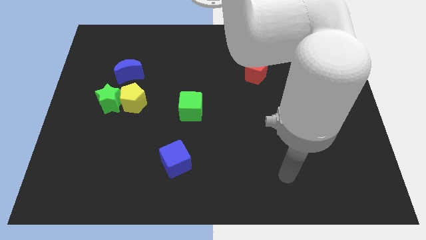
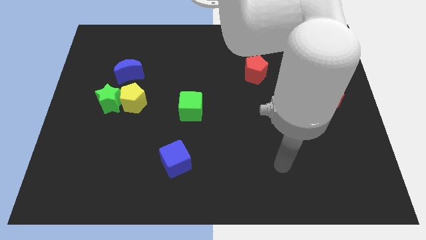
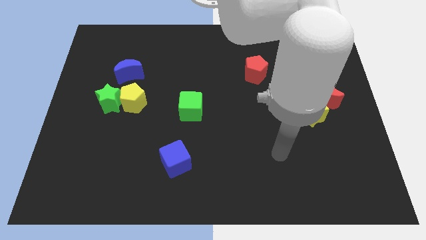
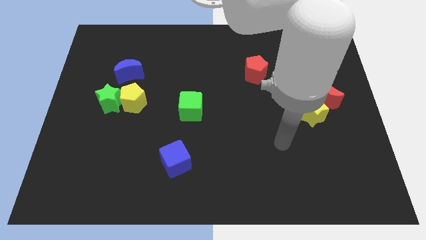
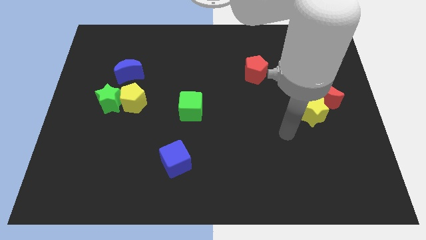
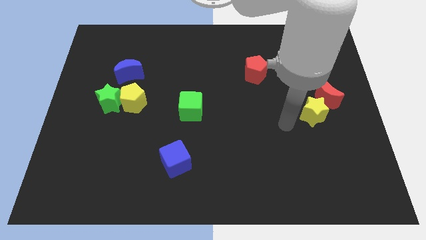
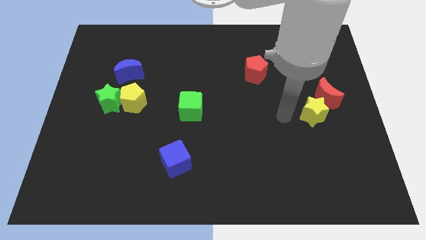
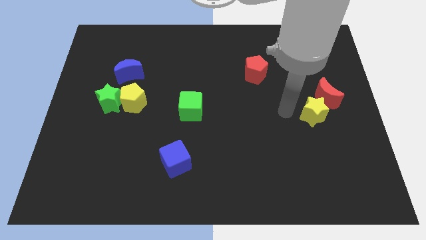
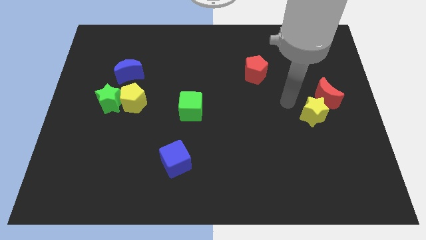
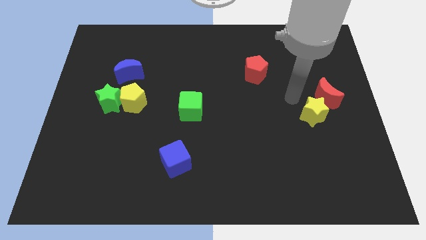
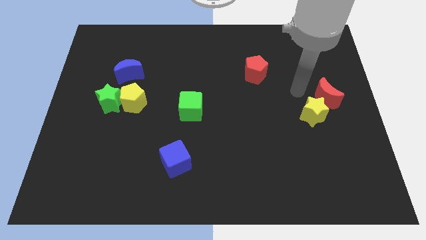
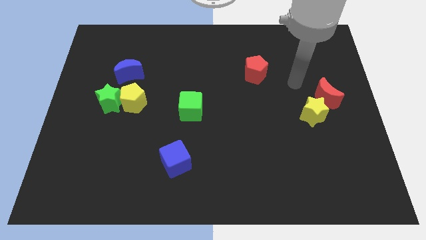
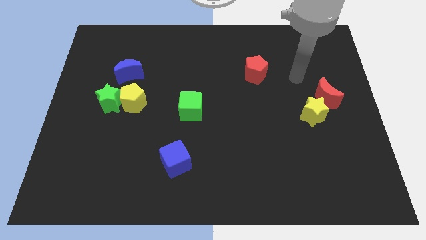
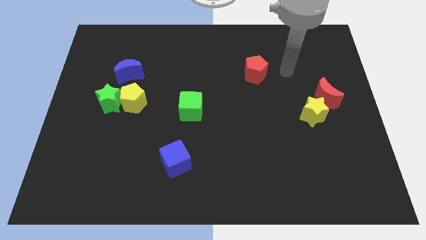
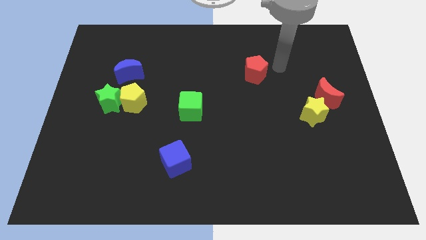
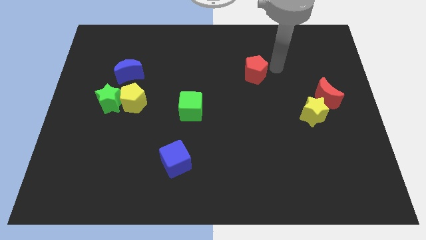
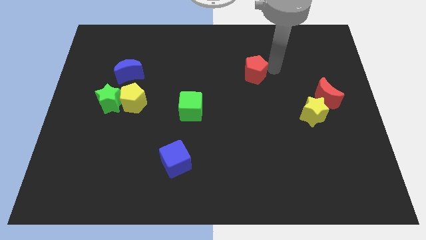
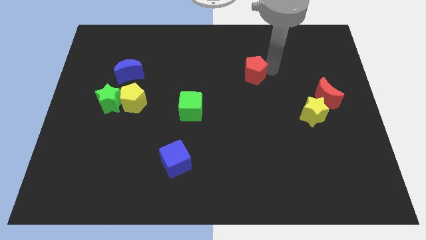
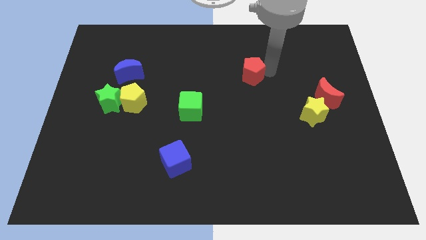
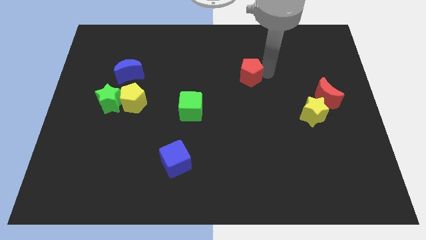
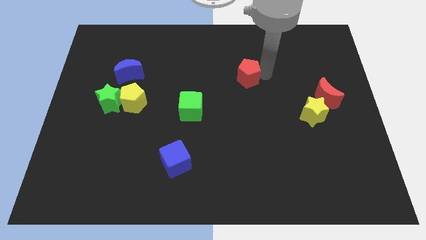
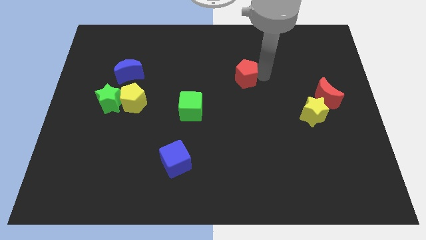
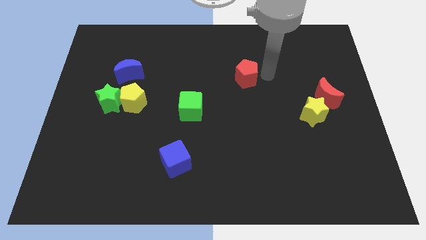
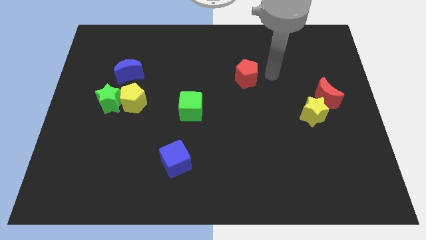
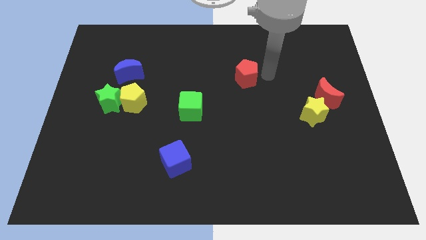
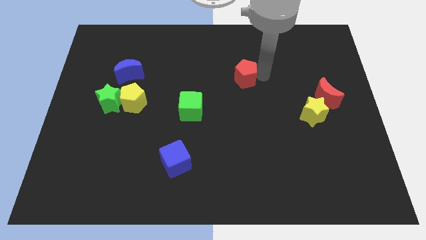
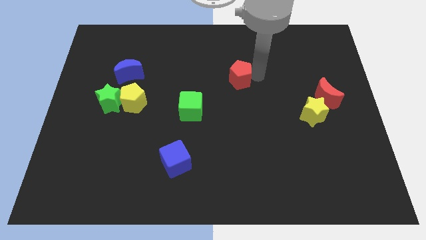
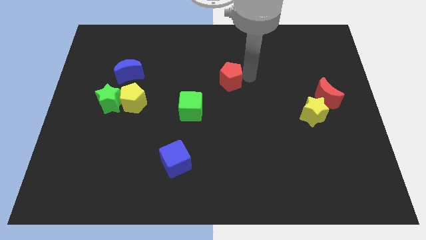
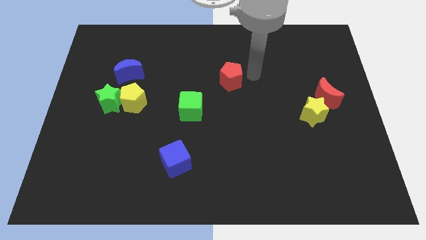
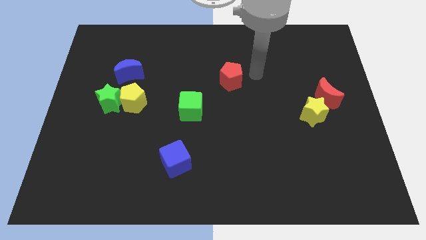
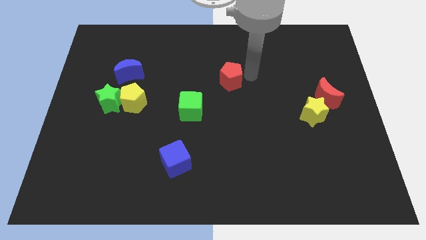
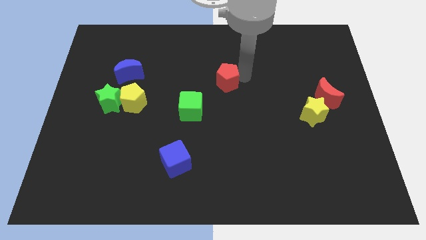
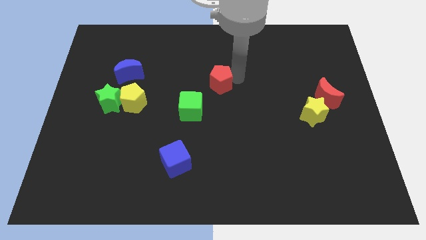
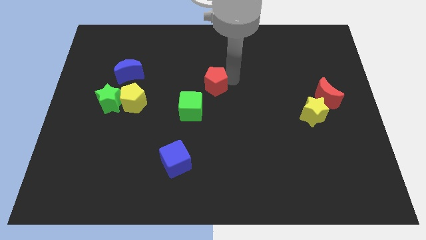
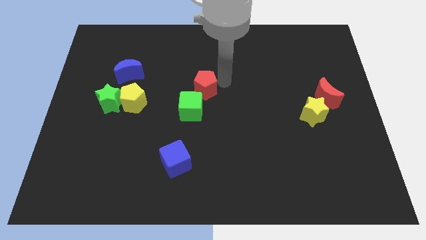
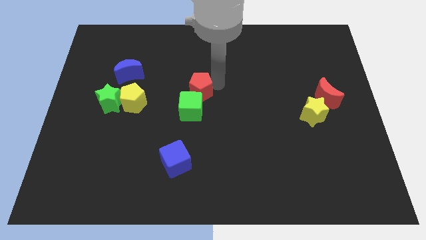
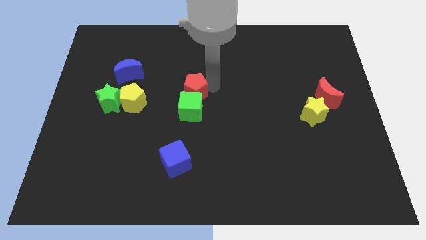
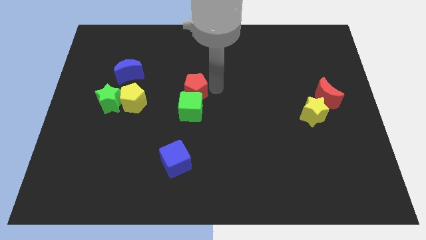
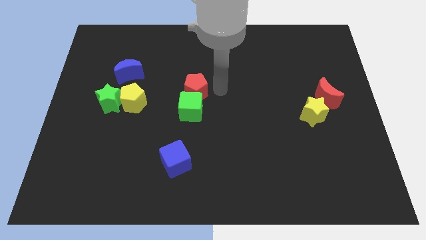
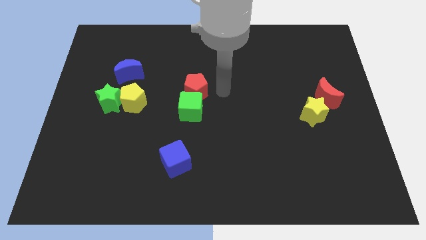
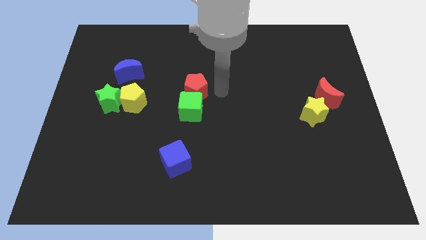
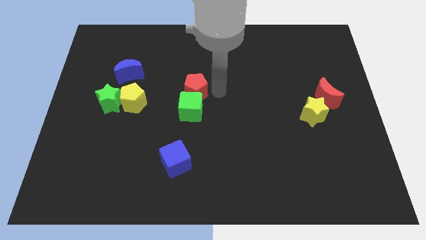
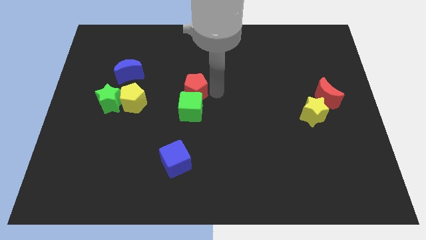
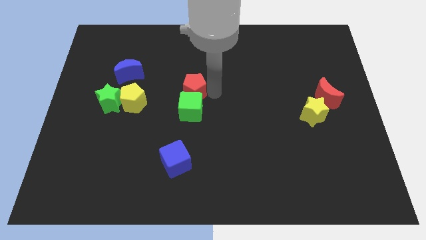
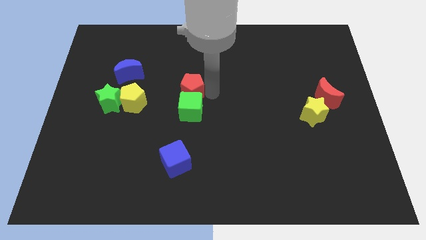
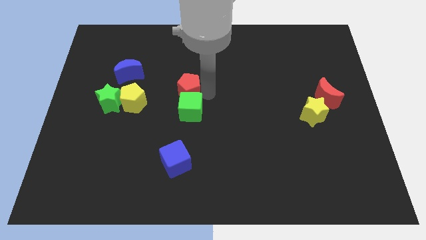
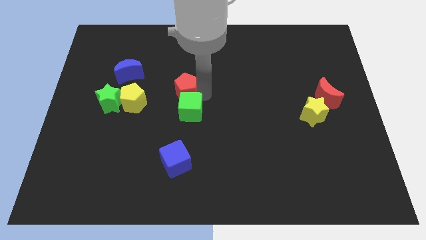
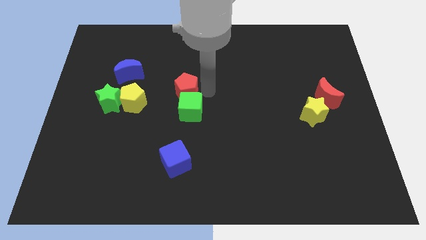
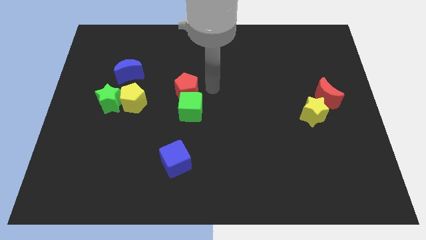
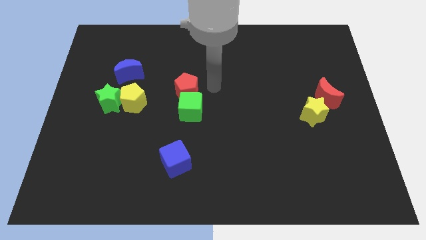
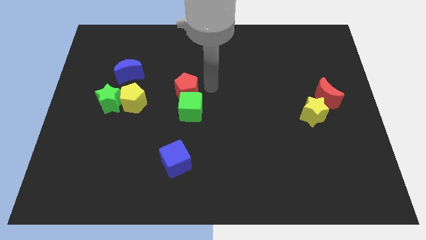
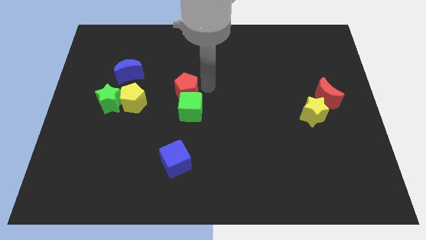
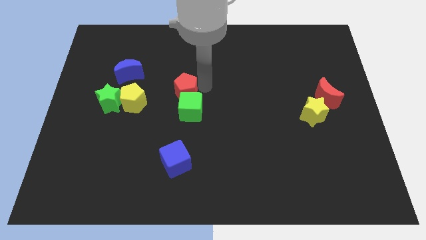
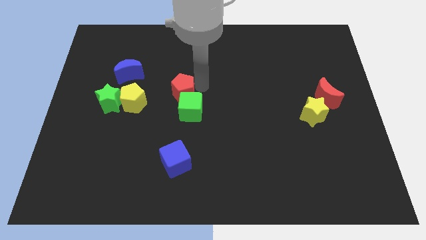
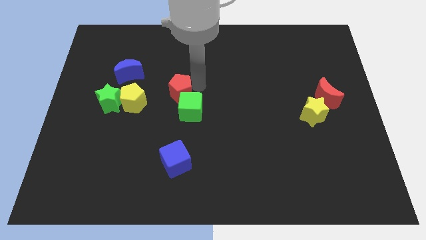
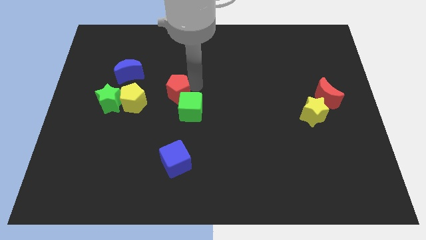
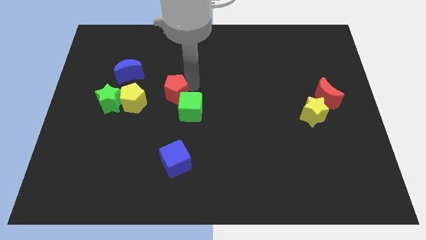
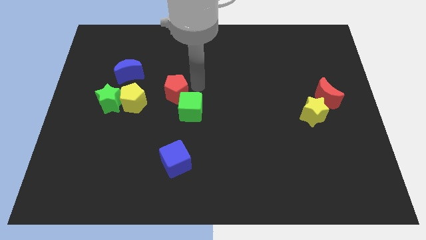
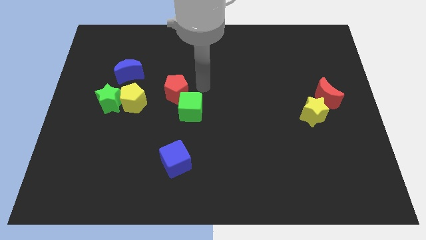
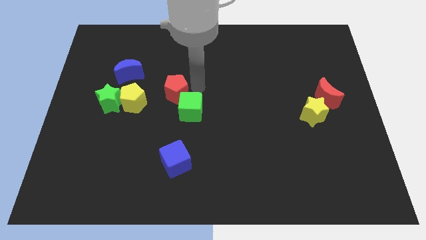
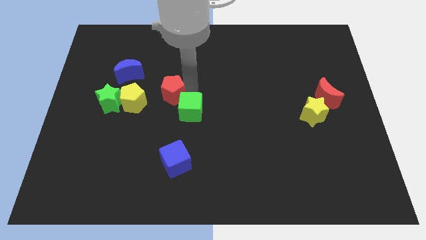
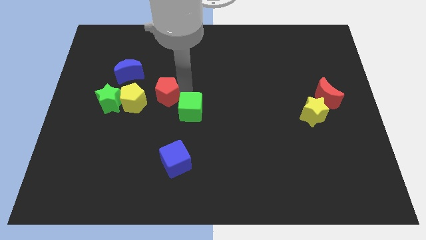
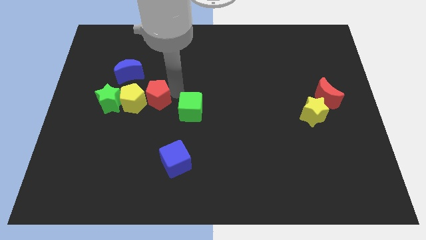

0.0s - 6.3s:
slide the red pentagon close to the yellow pentagon

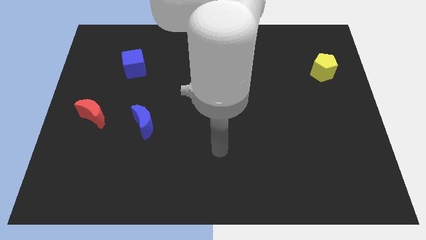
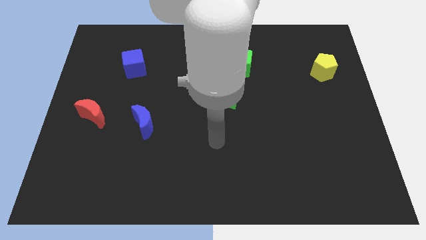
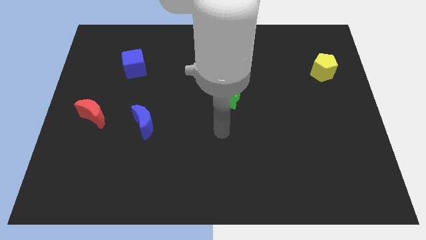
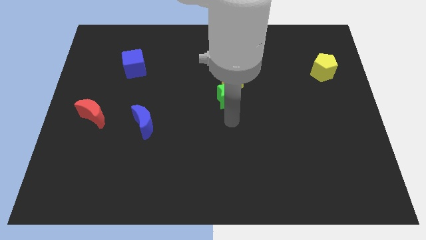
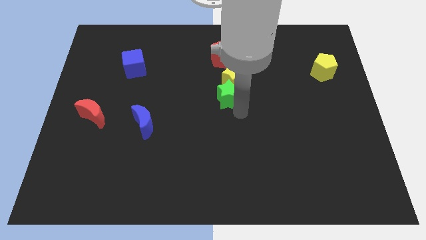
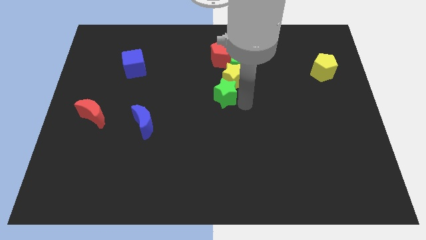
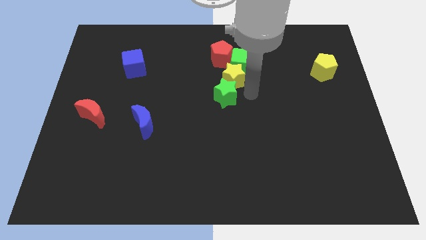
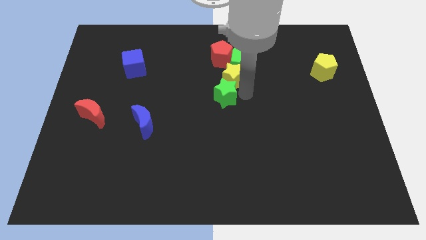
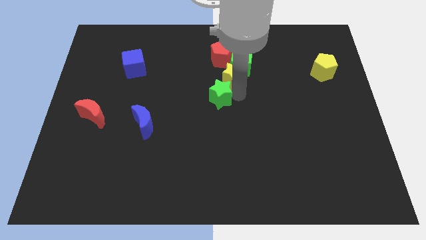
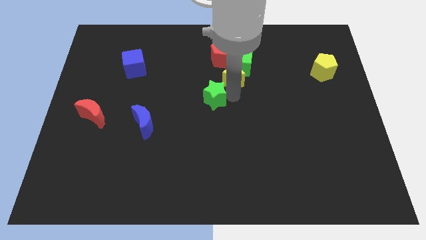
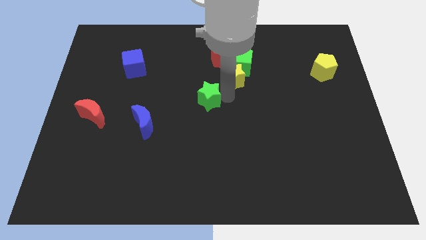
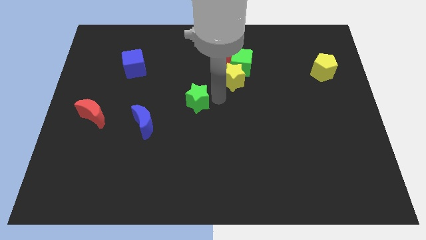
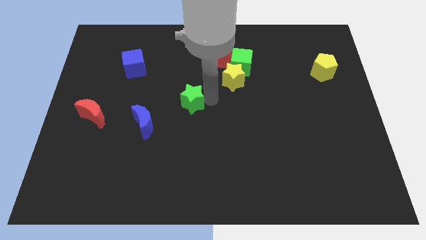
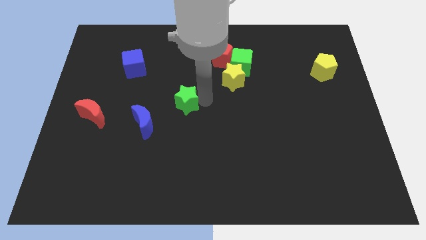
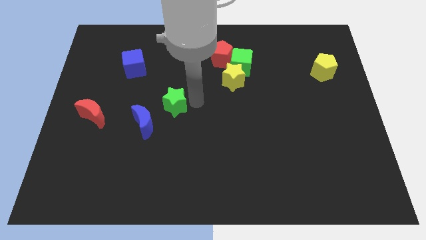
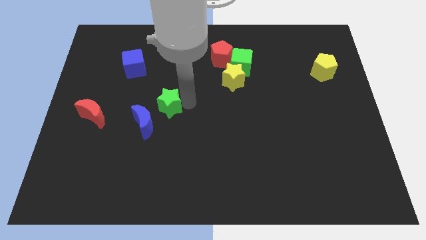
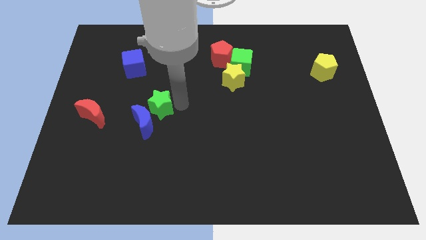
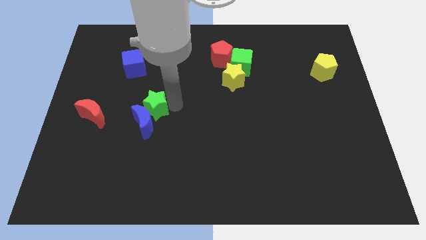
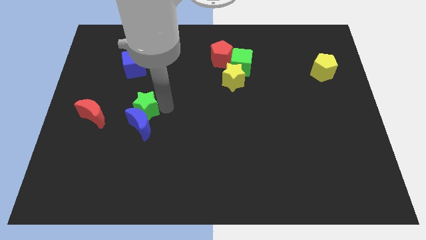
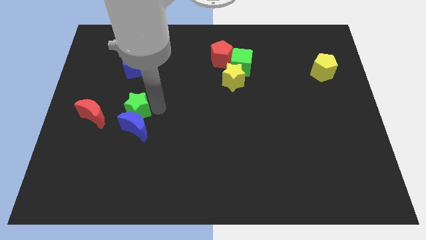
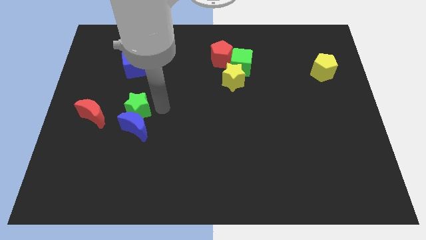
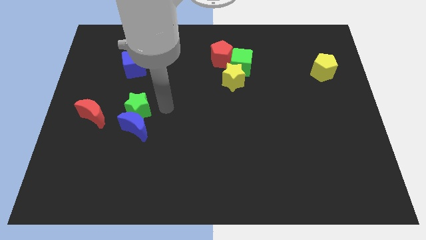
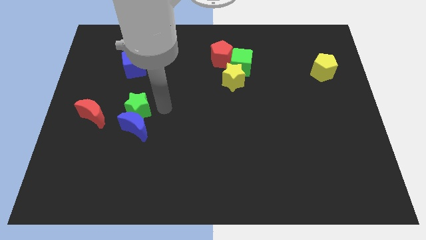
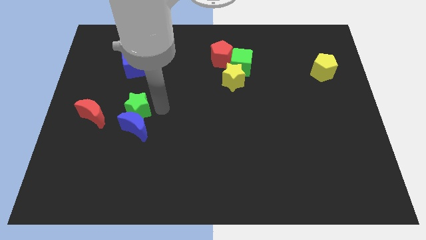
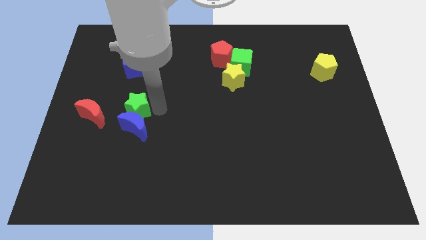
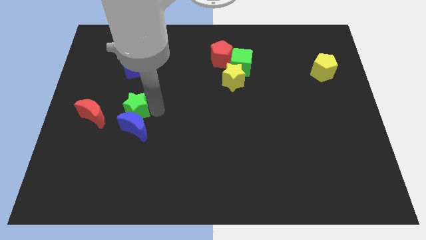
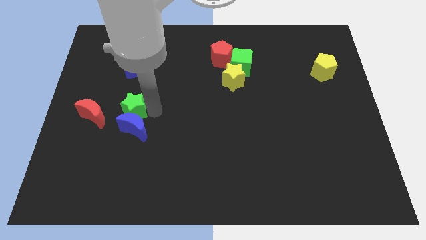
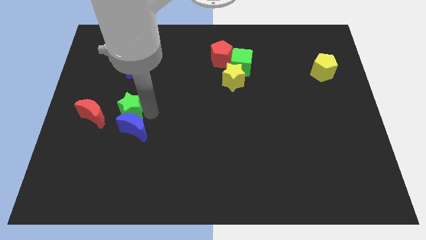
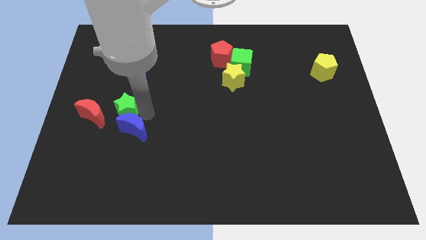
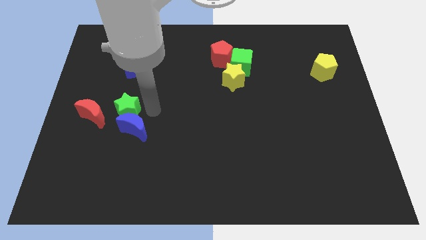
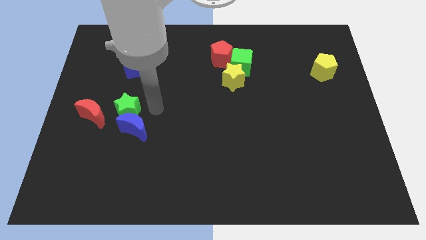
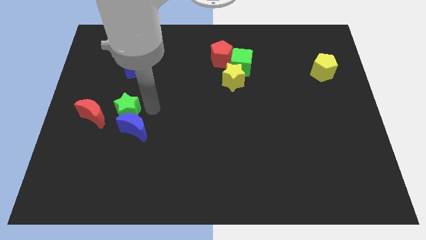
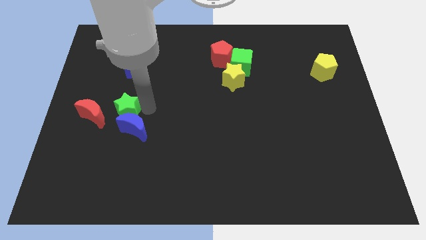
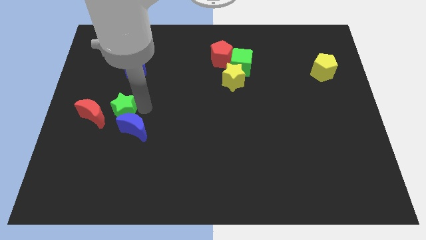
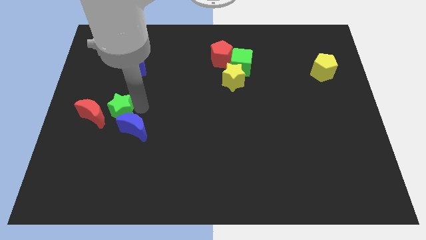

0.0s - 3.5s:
push the green star to the red moon
